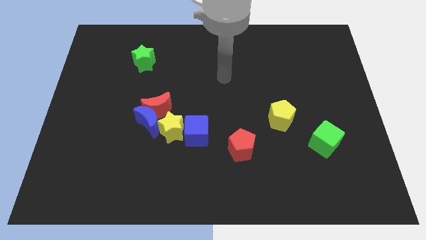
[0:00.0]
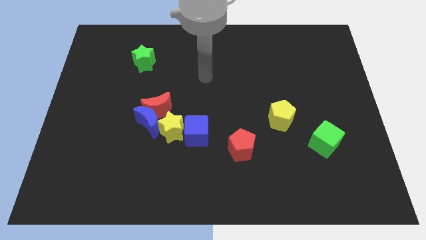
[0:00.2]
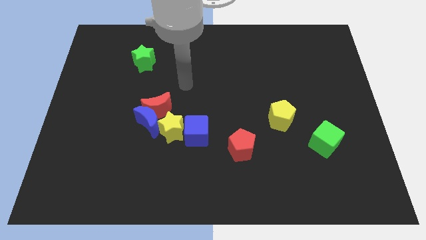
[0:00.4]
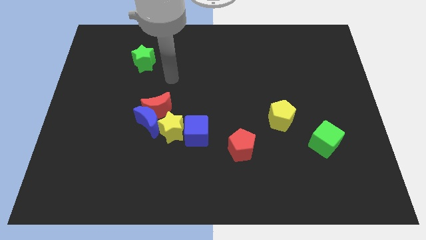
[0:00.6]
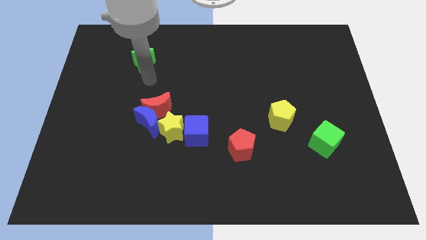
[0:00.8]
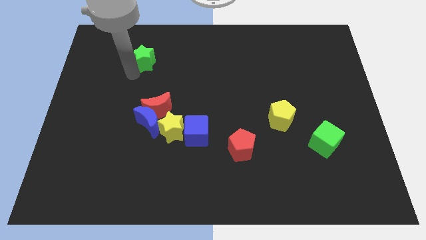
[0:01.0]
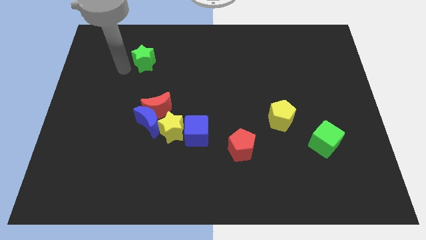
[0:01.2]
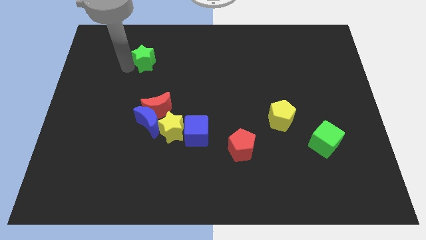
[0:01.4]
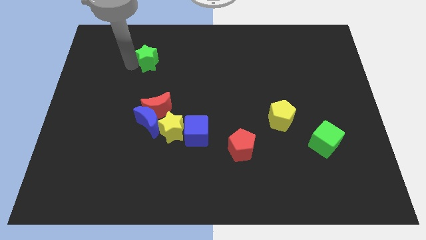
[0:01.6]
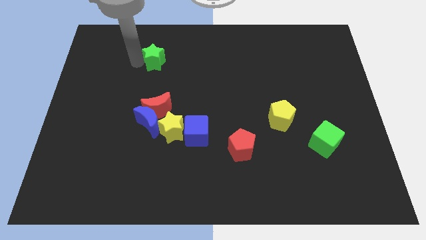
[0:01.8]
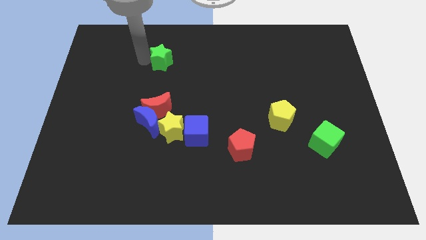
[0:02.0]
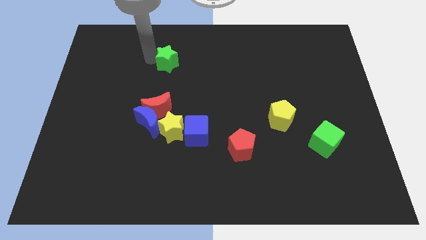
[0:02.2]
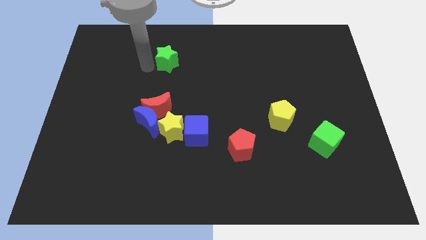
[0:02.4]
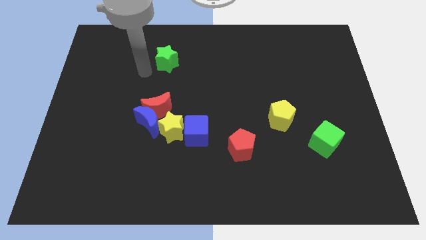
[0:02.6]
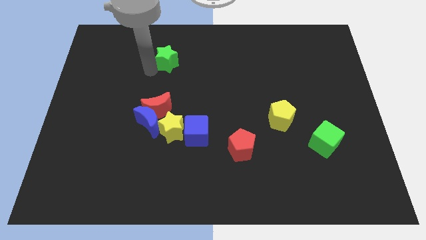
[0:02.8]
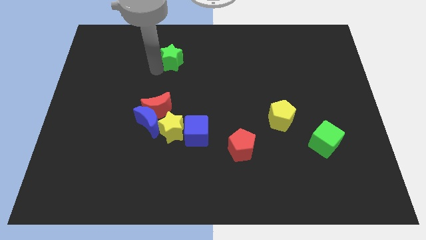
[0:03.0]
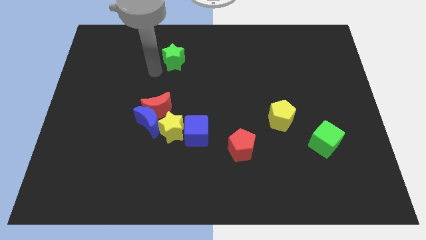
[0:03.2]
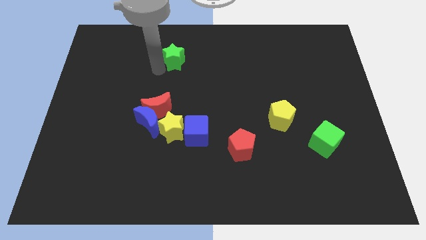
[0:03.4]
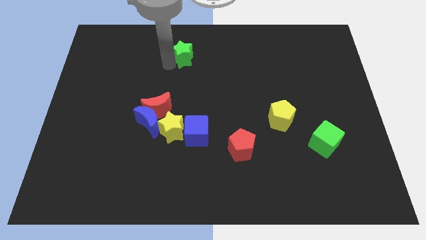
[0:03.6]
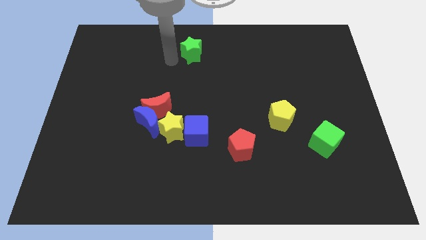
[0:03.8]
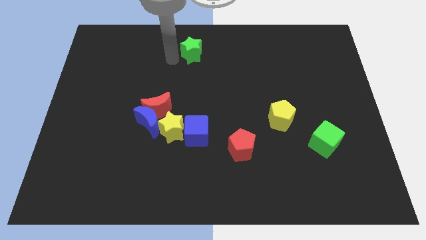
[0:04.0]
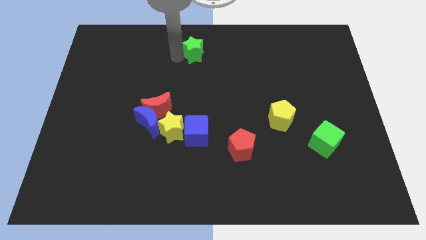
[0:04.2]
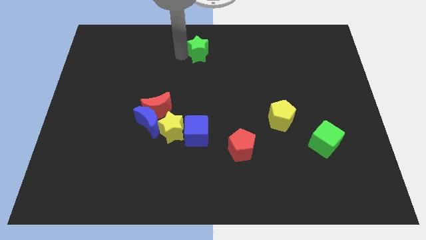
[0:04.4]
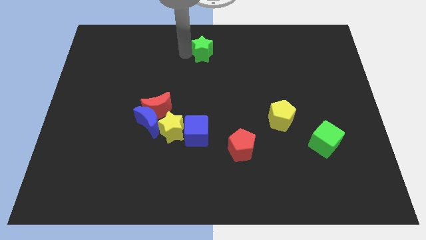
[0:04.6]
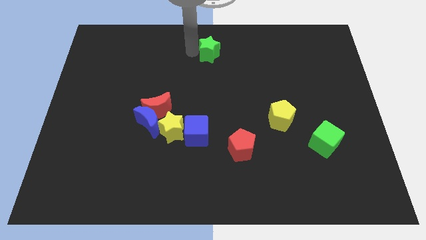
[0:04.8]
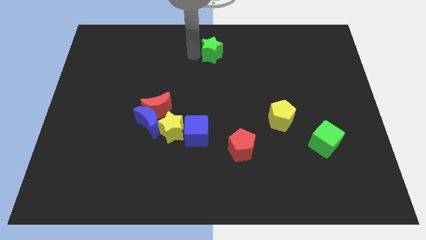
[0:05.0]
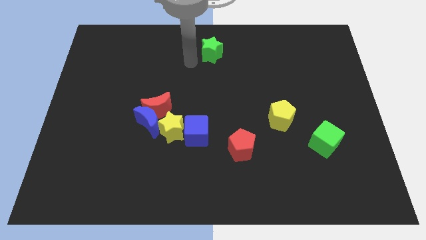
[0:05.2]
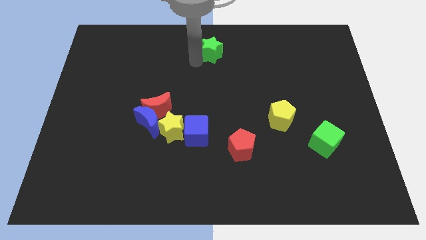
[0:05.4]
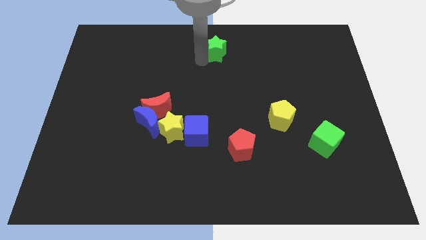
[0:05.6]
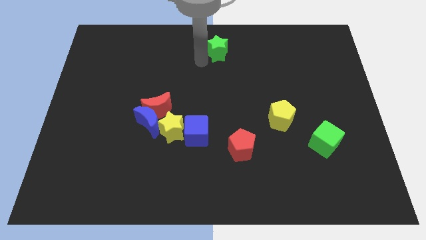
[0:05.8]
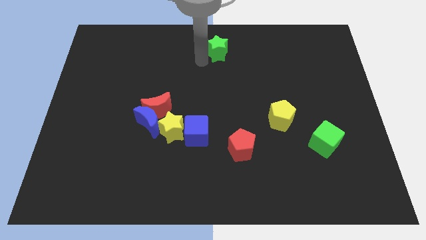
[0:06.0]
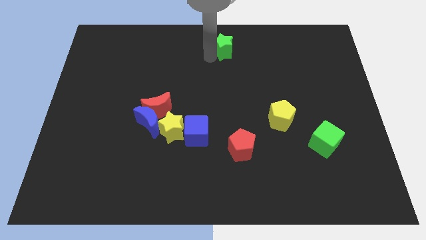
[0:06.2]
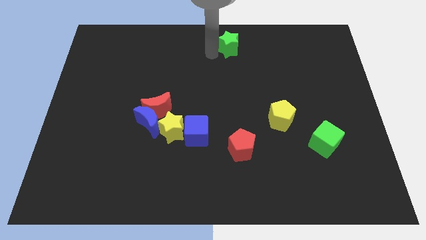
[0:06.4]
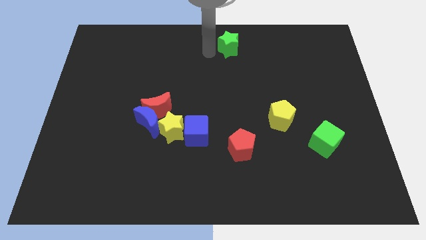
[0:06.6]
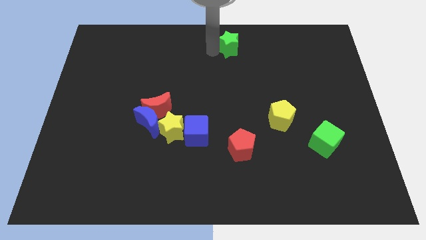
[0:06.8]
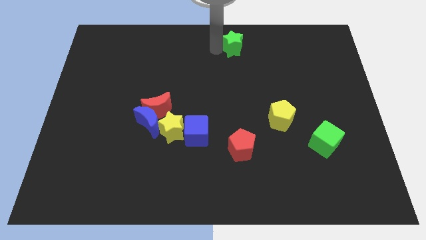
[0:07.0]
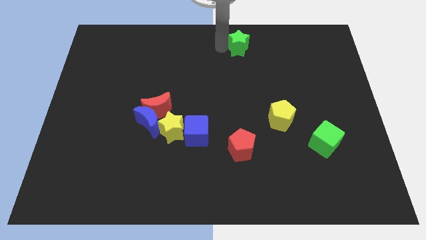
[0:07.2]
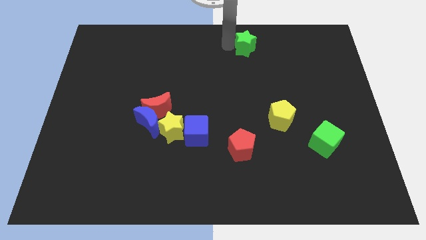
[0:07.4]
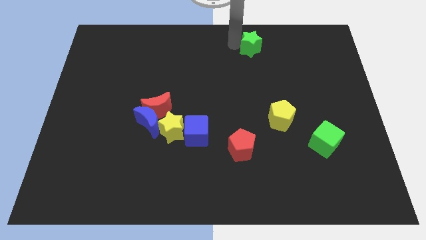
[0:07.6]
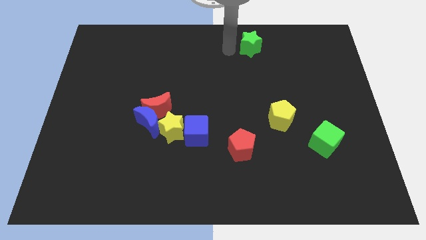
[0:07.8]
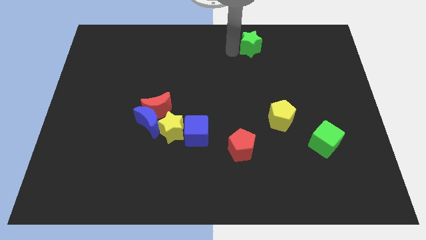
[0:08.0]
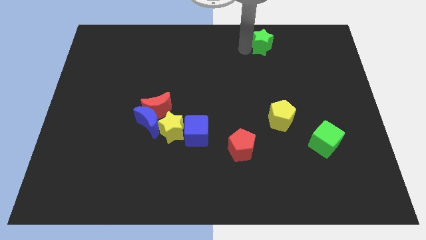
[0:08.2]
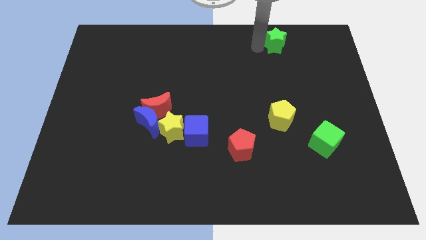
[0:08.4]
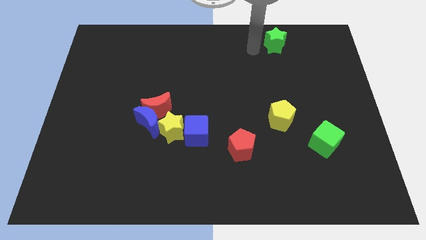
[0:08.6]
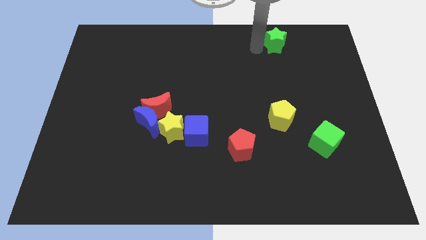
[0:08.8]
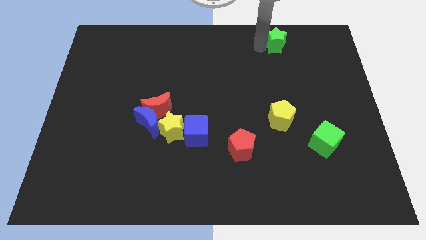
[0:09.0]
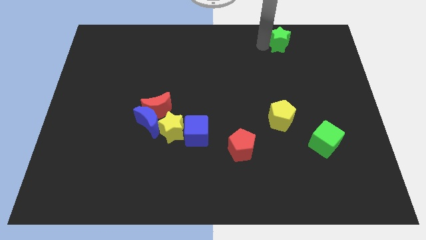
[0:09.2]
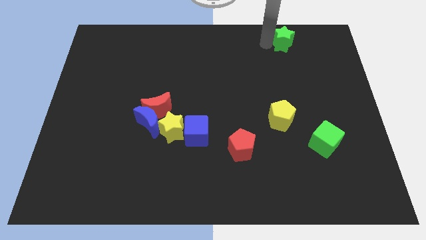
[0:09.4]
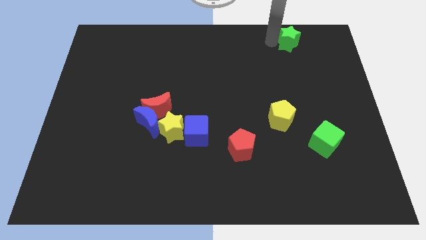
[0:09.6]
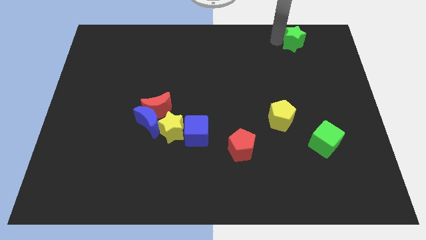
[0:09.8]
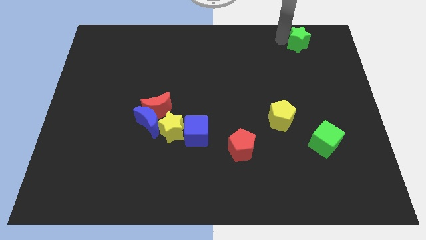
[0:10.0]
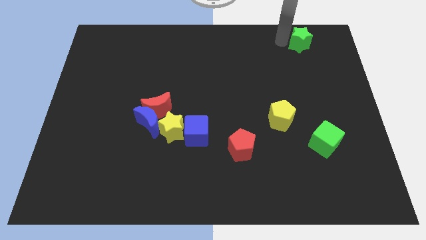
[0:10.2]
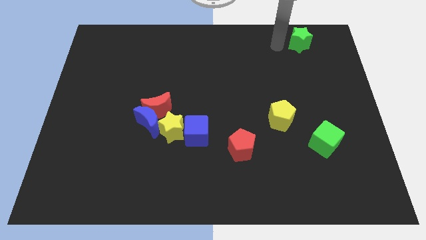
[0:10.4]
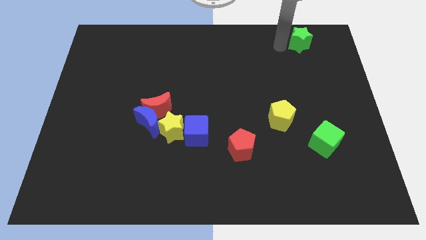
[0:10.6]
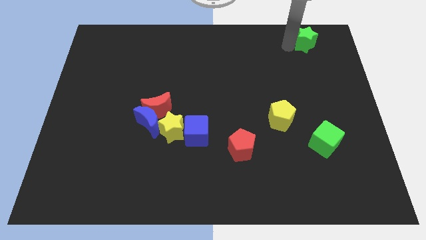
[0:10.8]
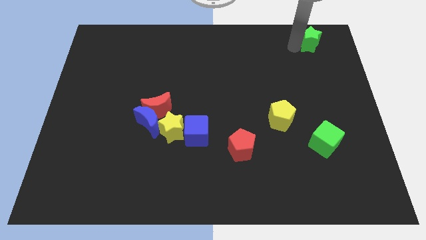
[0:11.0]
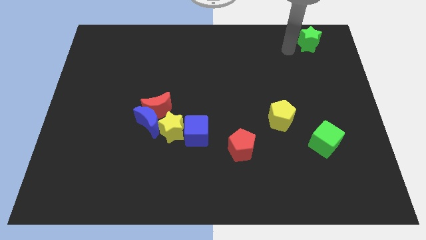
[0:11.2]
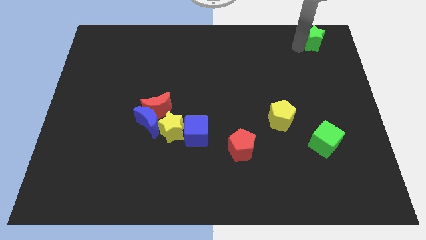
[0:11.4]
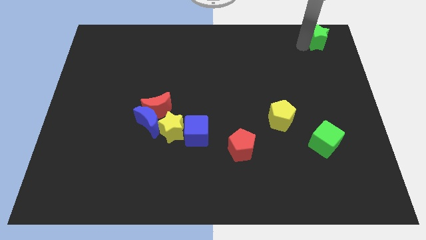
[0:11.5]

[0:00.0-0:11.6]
slide the green star to the top right of the board

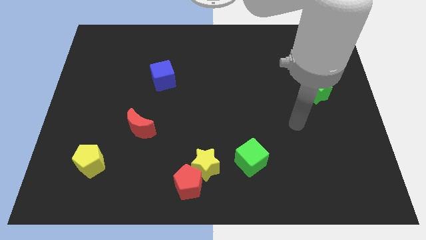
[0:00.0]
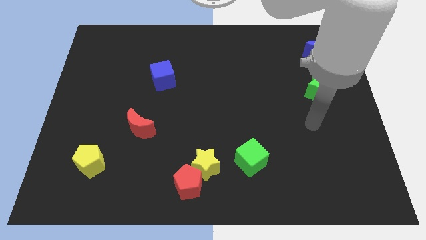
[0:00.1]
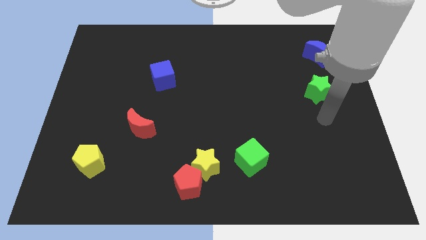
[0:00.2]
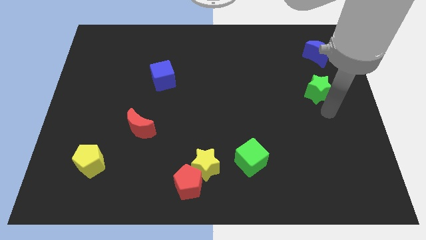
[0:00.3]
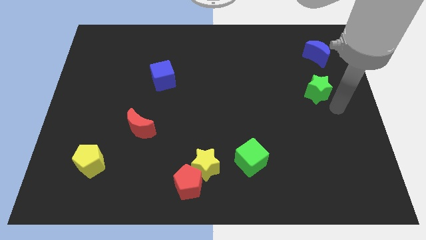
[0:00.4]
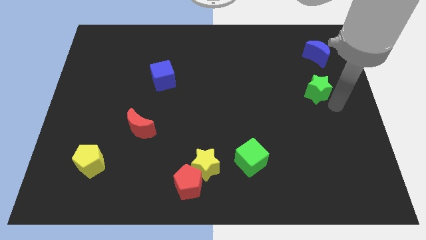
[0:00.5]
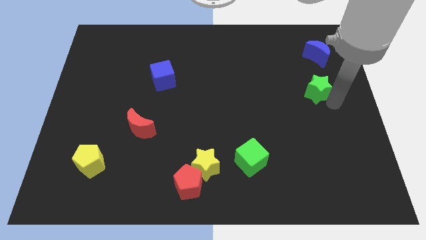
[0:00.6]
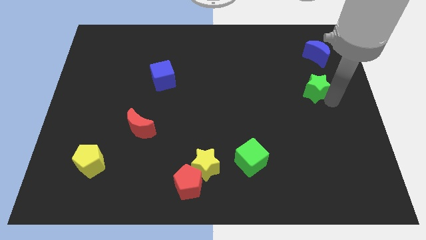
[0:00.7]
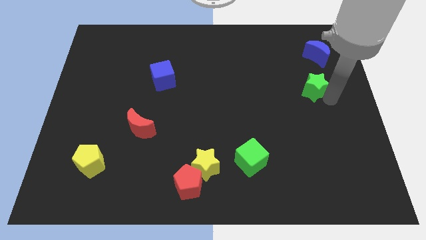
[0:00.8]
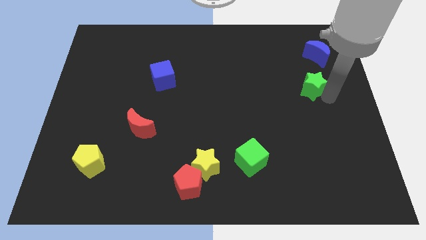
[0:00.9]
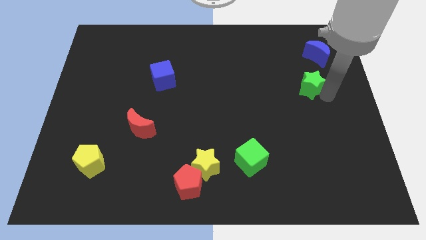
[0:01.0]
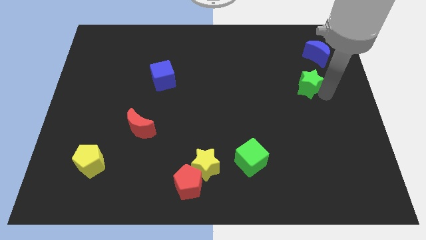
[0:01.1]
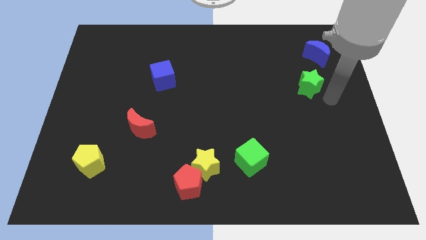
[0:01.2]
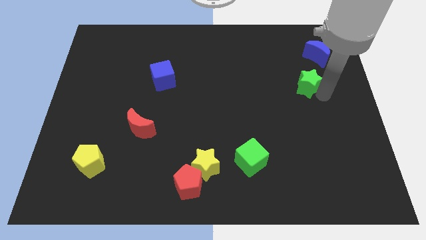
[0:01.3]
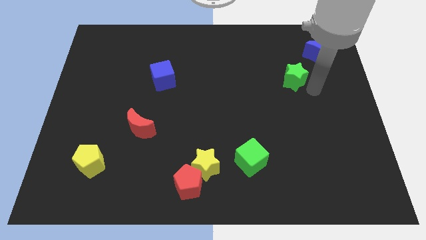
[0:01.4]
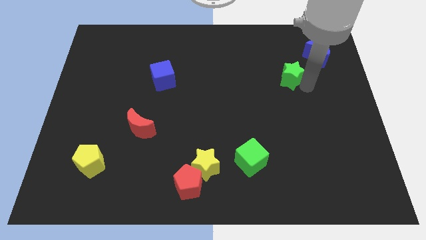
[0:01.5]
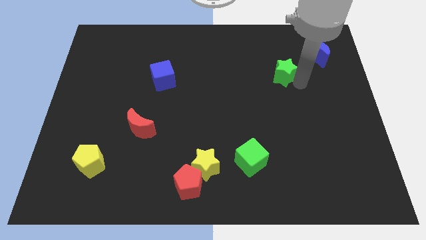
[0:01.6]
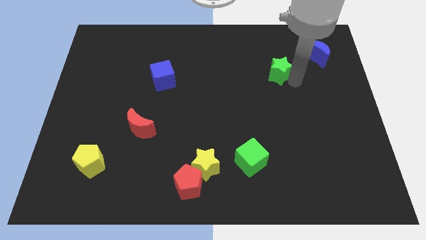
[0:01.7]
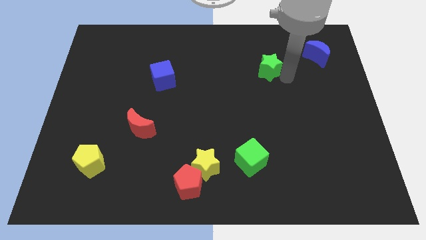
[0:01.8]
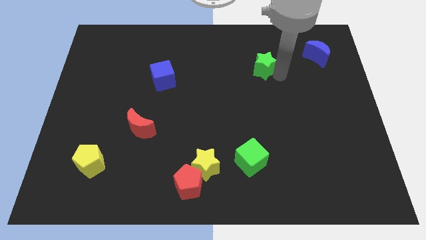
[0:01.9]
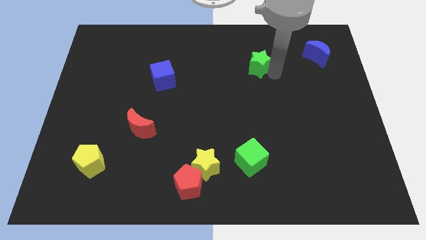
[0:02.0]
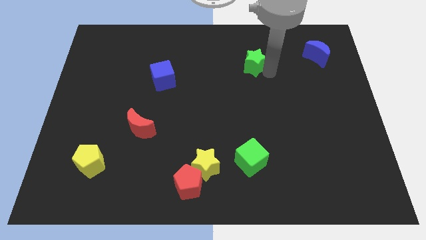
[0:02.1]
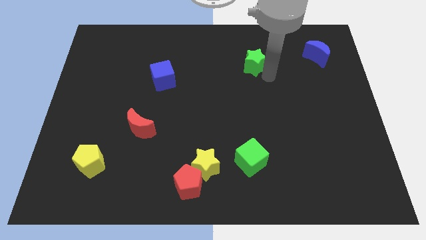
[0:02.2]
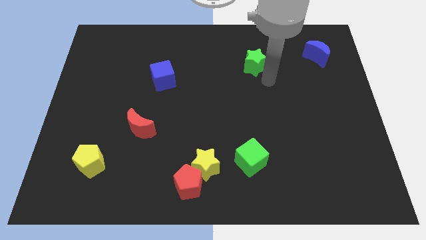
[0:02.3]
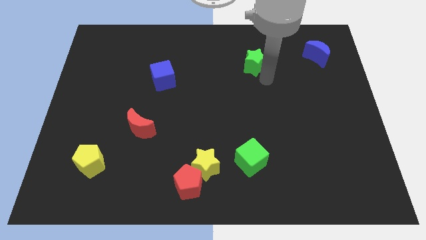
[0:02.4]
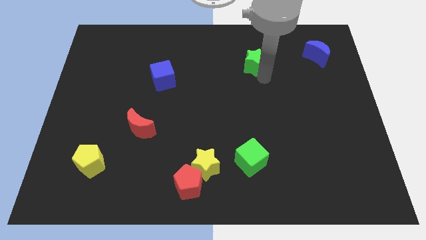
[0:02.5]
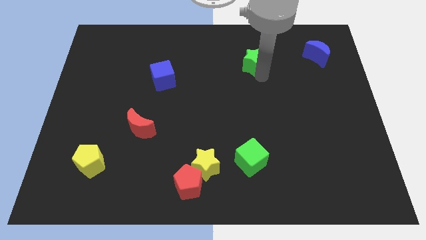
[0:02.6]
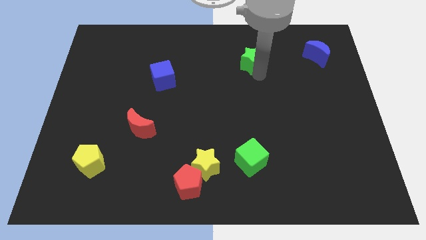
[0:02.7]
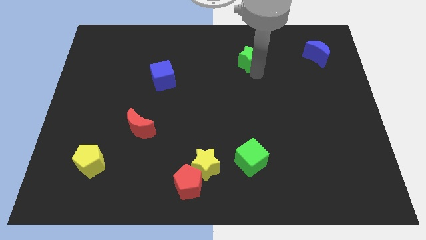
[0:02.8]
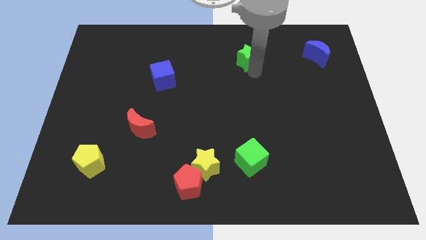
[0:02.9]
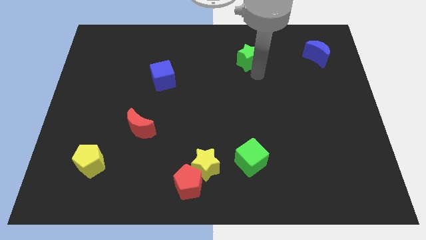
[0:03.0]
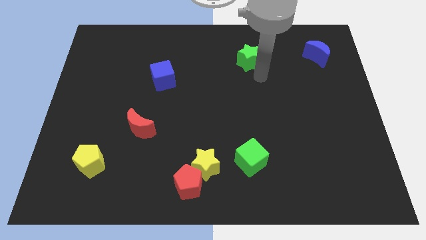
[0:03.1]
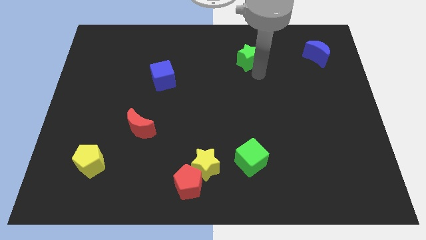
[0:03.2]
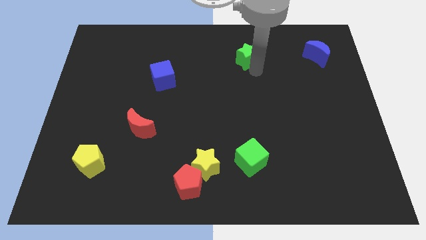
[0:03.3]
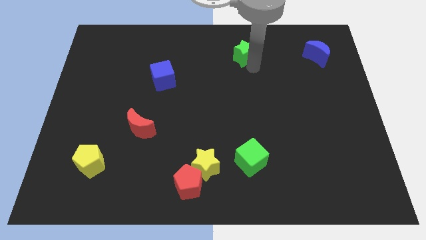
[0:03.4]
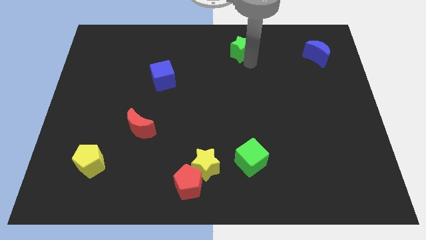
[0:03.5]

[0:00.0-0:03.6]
move the green star to the towards your base
